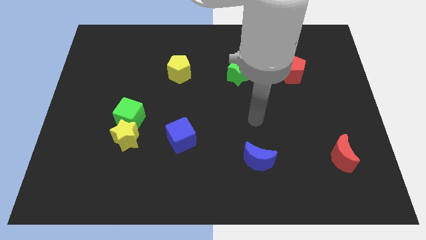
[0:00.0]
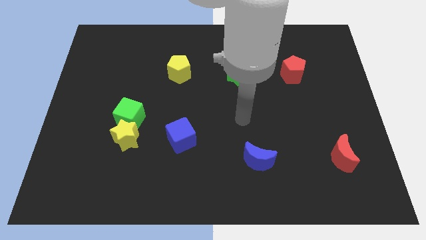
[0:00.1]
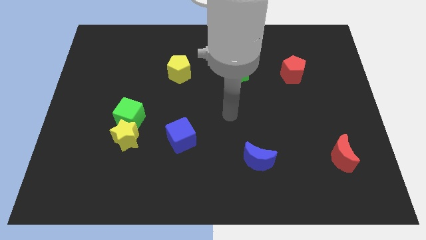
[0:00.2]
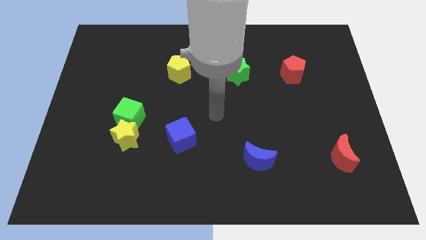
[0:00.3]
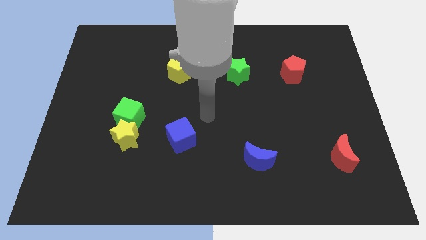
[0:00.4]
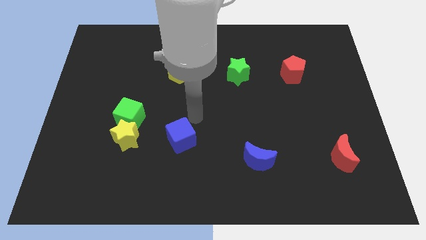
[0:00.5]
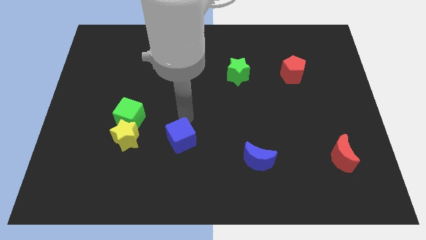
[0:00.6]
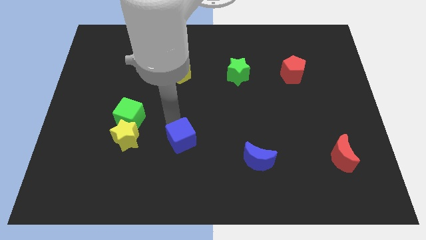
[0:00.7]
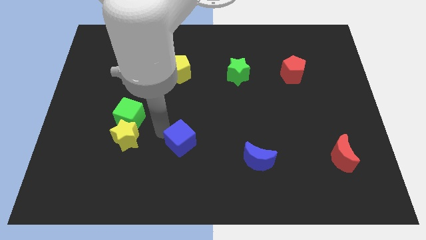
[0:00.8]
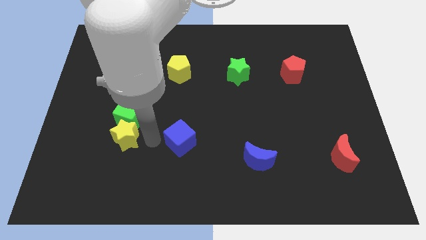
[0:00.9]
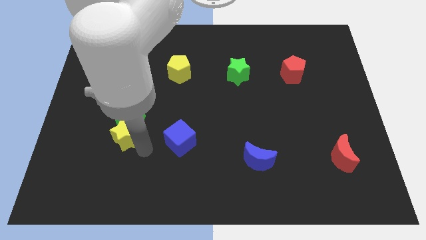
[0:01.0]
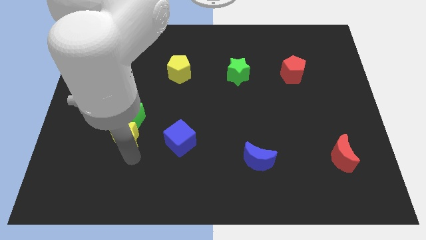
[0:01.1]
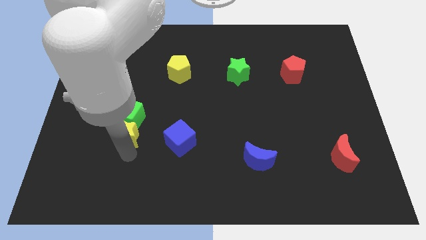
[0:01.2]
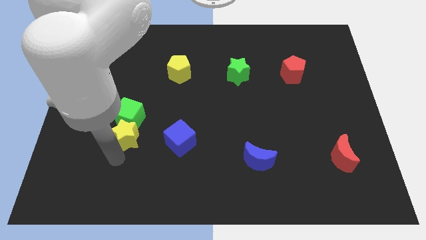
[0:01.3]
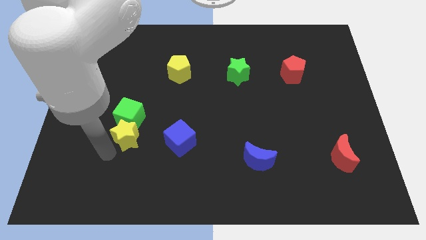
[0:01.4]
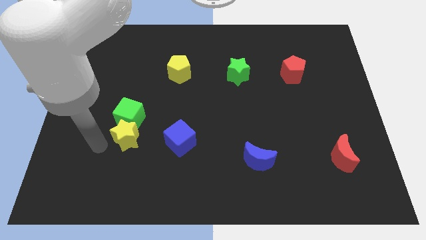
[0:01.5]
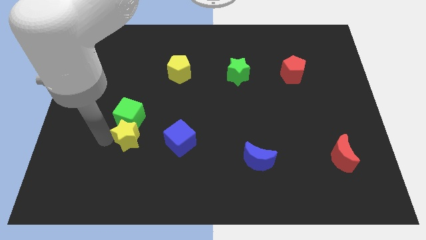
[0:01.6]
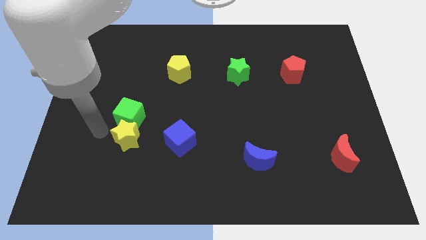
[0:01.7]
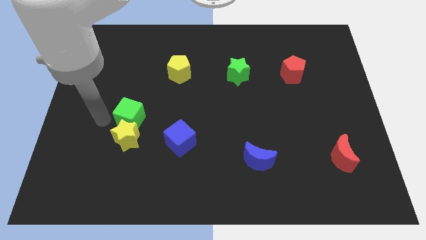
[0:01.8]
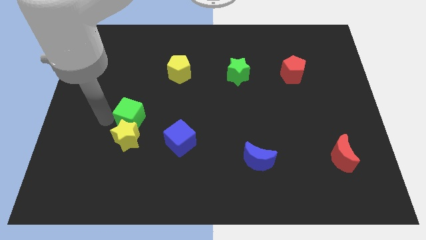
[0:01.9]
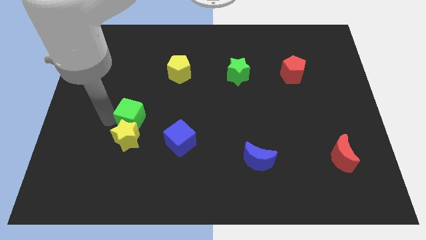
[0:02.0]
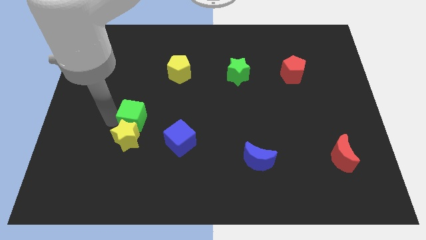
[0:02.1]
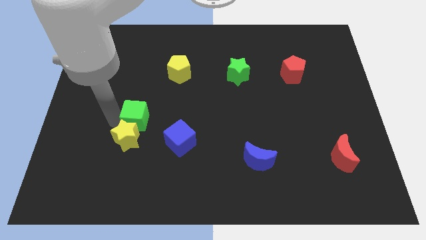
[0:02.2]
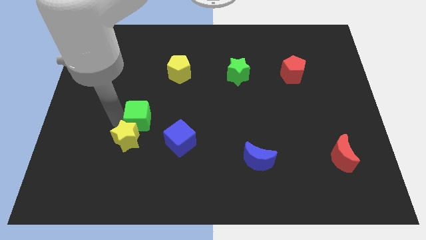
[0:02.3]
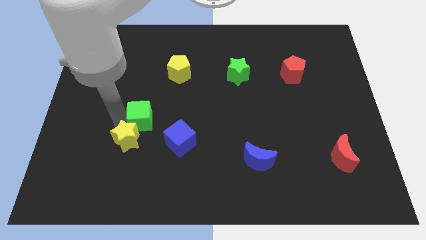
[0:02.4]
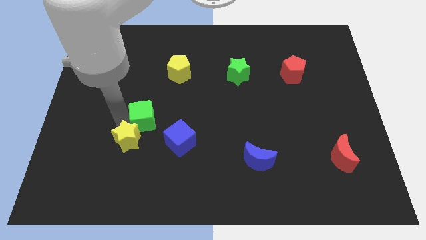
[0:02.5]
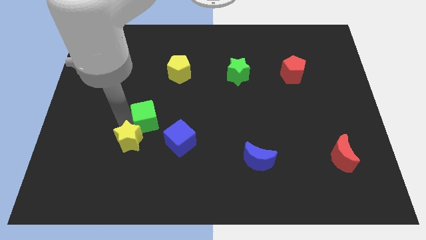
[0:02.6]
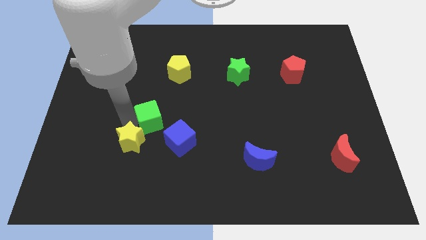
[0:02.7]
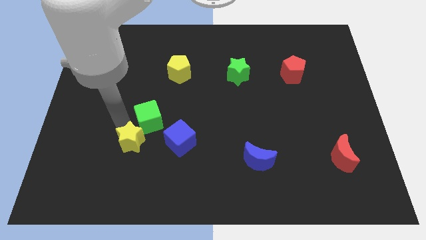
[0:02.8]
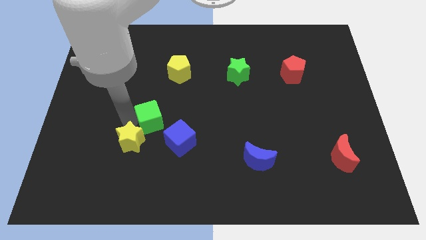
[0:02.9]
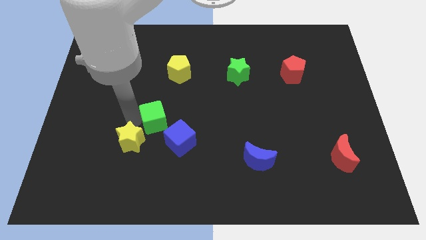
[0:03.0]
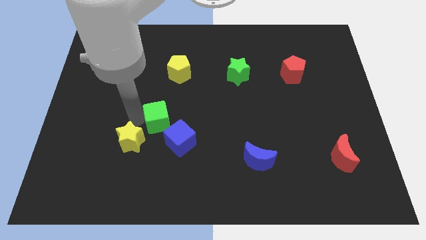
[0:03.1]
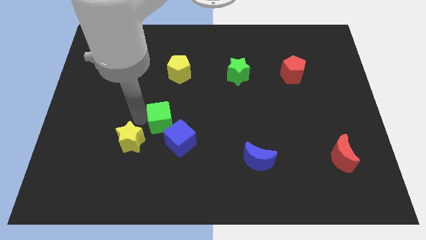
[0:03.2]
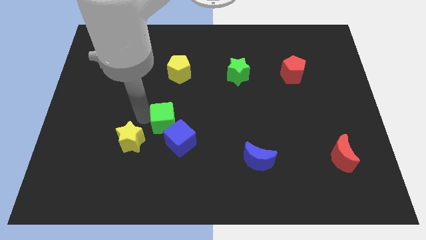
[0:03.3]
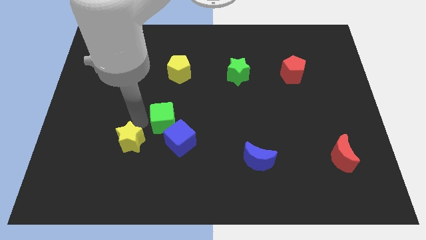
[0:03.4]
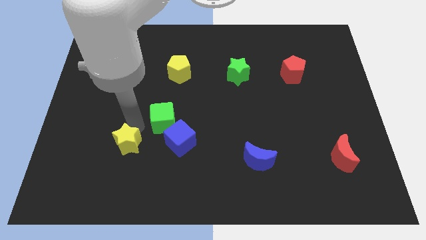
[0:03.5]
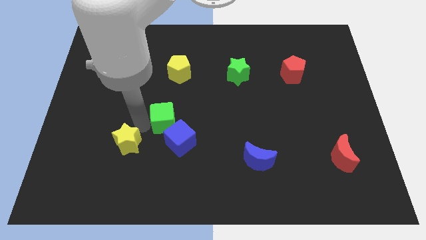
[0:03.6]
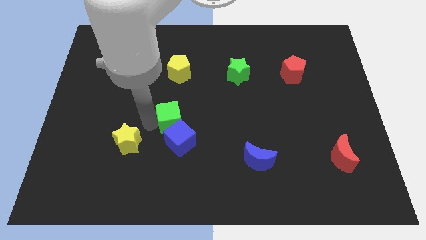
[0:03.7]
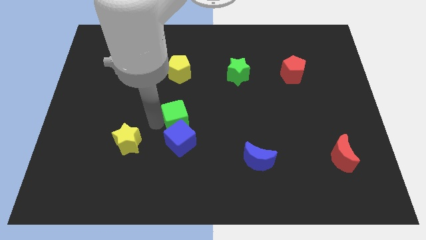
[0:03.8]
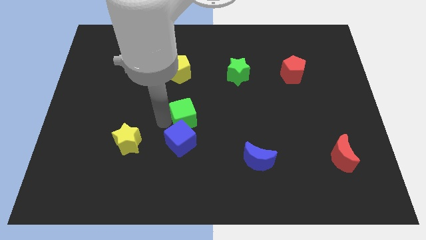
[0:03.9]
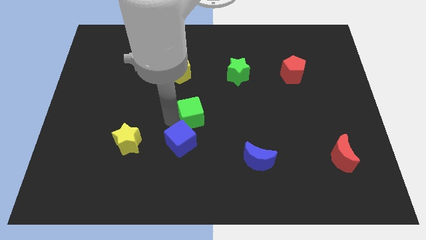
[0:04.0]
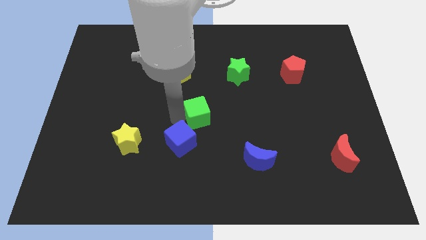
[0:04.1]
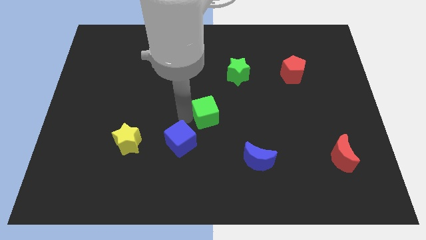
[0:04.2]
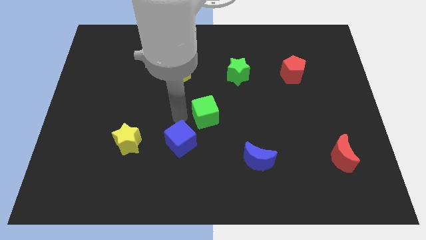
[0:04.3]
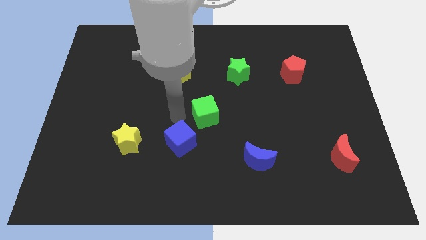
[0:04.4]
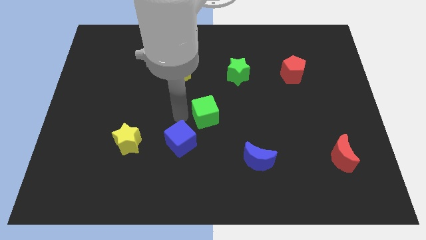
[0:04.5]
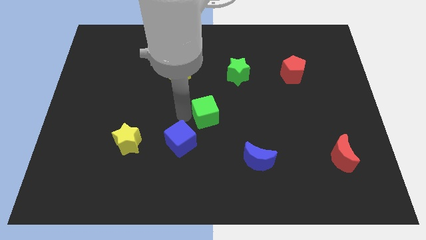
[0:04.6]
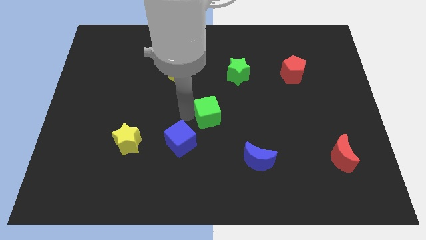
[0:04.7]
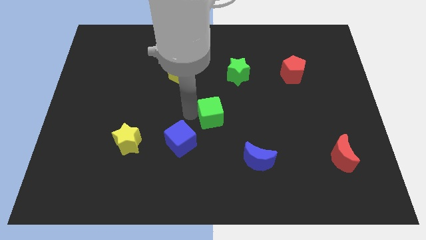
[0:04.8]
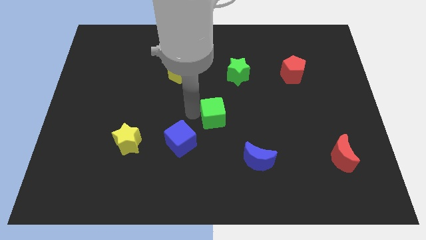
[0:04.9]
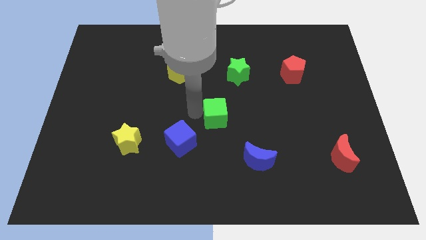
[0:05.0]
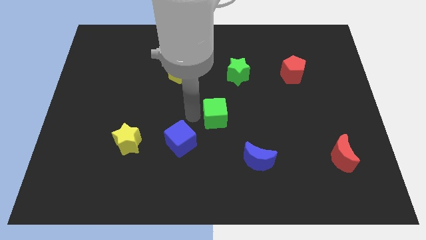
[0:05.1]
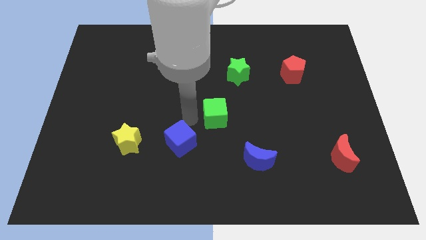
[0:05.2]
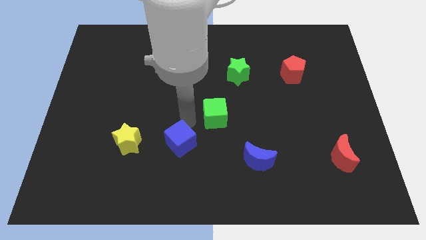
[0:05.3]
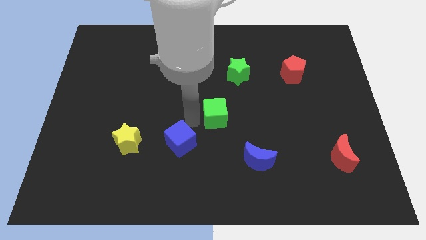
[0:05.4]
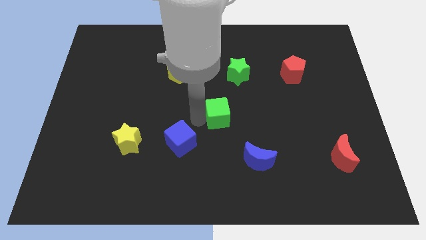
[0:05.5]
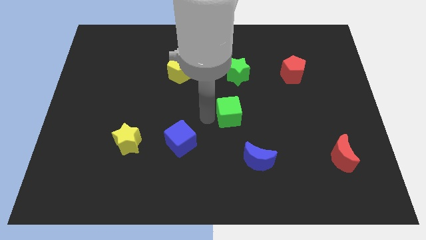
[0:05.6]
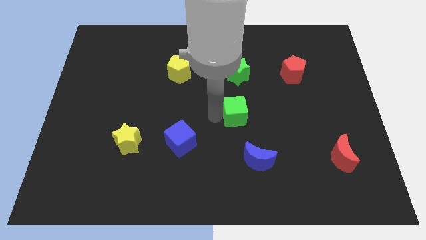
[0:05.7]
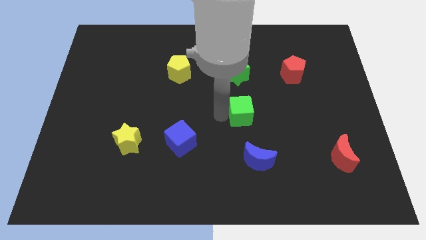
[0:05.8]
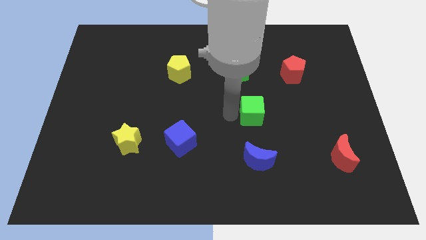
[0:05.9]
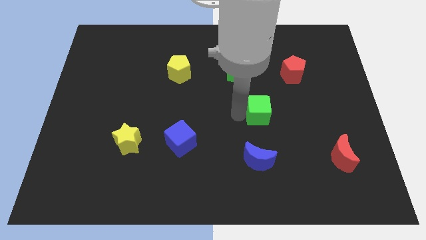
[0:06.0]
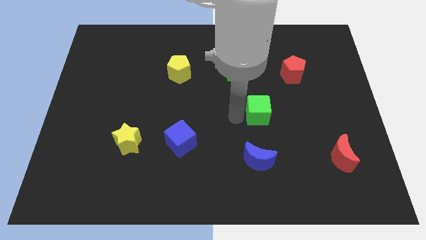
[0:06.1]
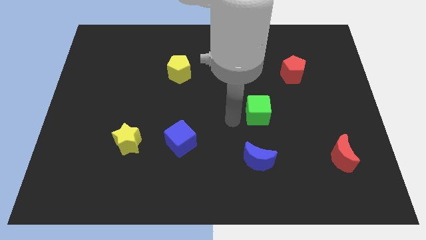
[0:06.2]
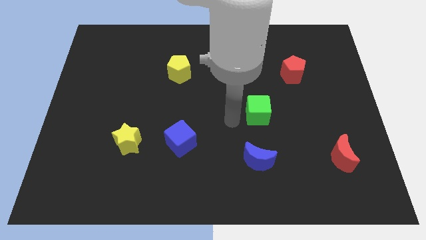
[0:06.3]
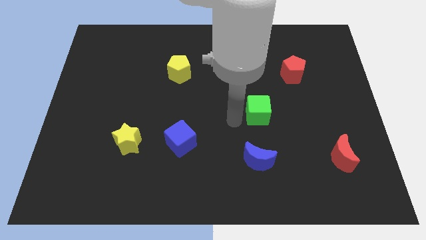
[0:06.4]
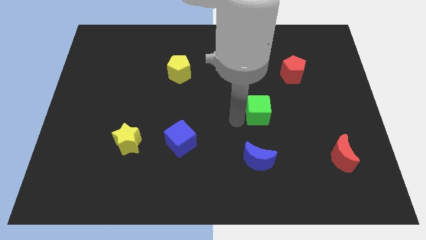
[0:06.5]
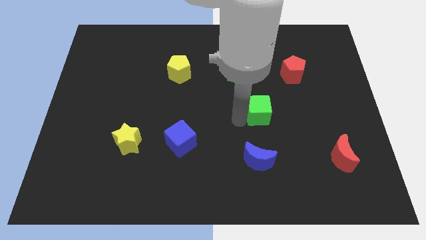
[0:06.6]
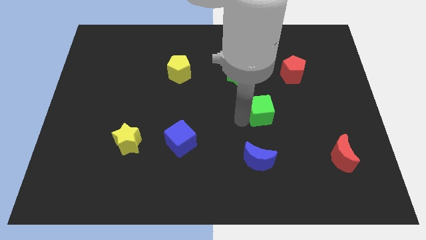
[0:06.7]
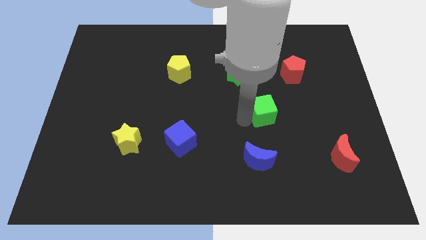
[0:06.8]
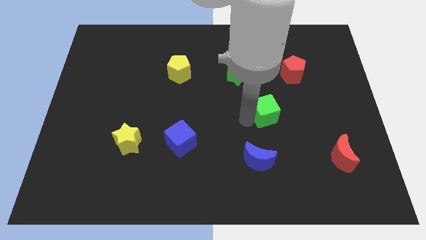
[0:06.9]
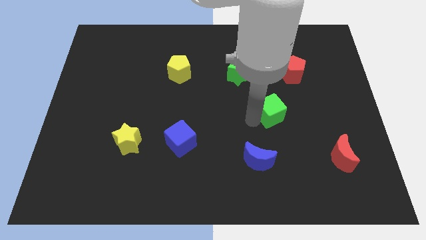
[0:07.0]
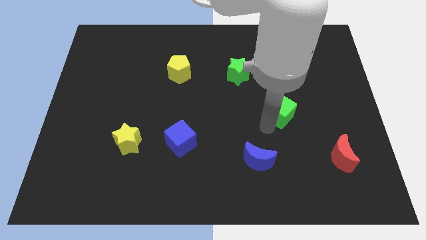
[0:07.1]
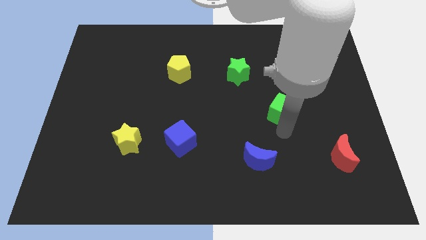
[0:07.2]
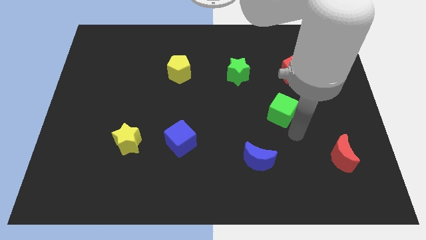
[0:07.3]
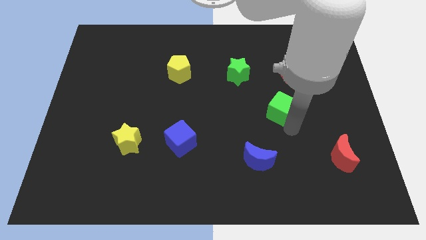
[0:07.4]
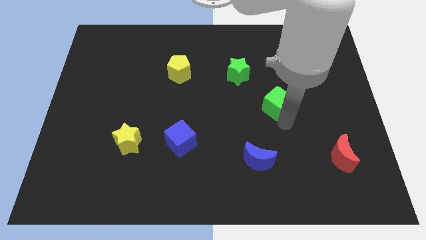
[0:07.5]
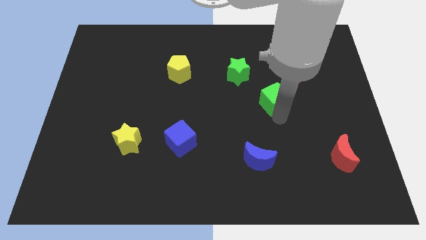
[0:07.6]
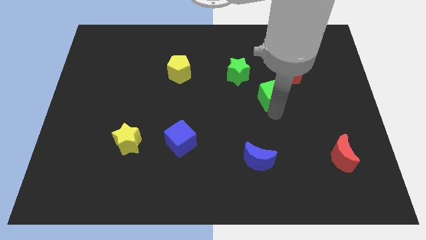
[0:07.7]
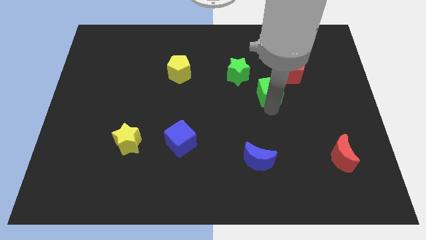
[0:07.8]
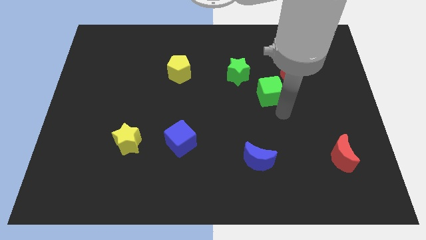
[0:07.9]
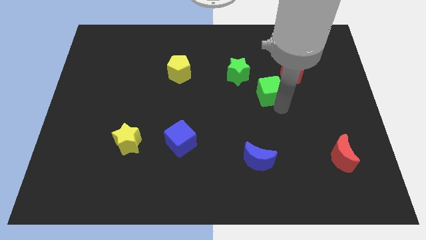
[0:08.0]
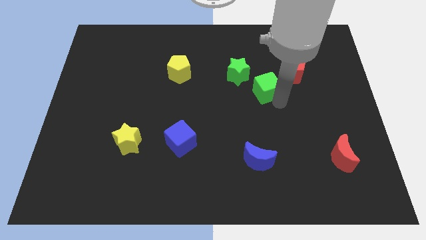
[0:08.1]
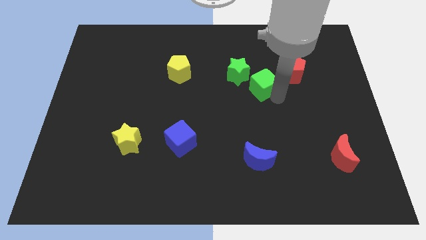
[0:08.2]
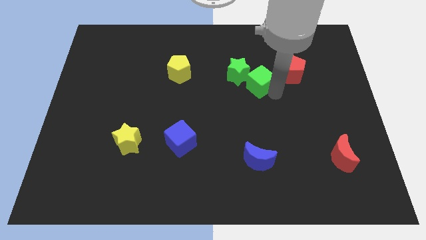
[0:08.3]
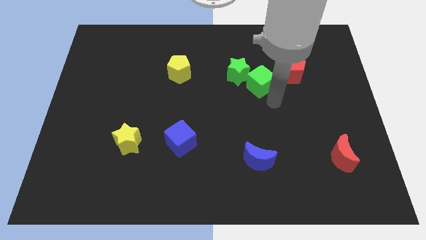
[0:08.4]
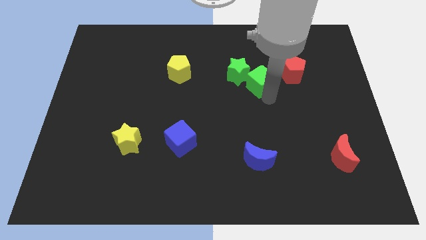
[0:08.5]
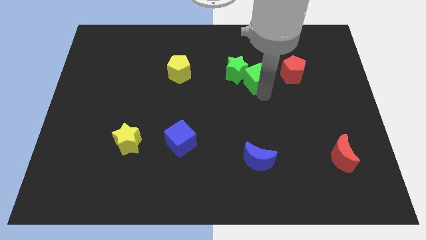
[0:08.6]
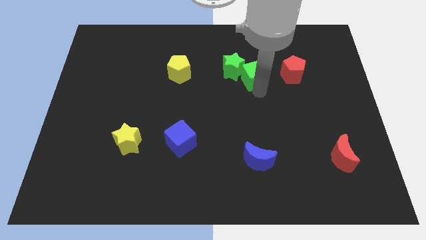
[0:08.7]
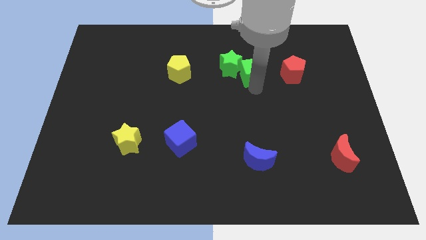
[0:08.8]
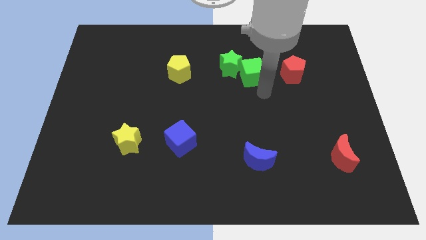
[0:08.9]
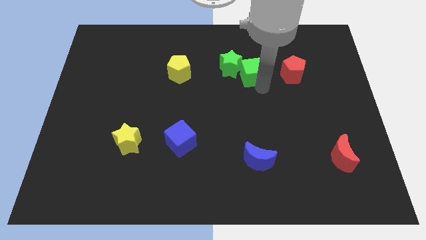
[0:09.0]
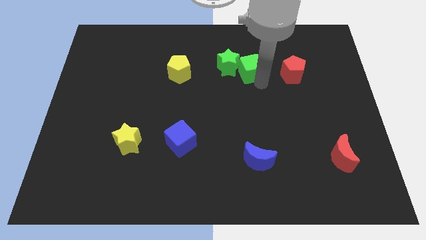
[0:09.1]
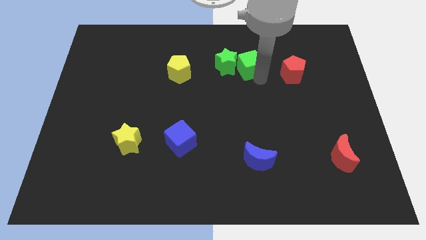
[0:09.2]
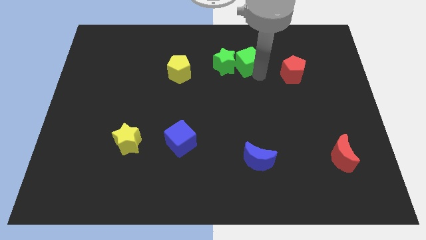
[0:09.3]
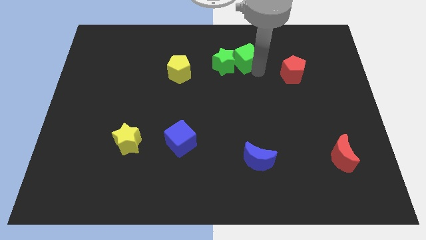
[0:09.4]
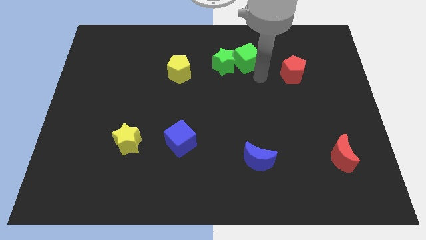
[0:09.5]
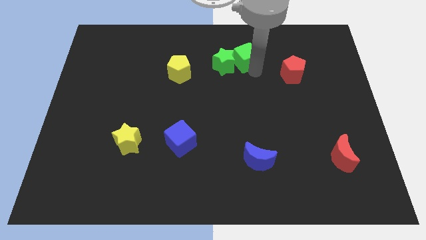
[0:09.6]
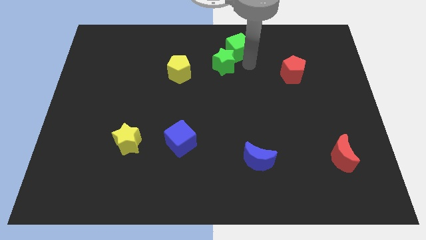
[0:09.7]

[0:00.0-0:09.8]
move the green cube to the towards your base
